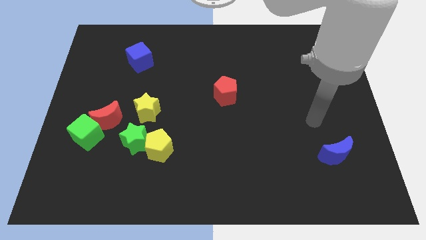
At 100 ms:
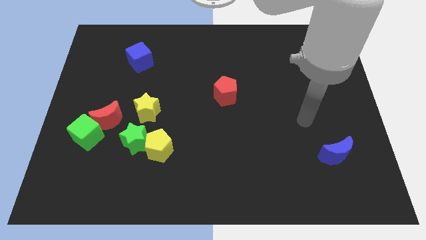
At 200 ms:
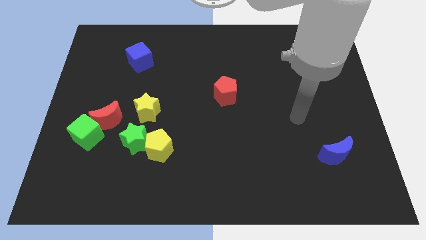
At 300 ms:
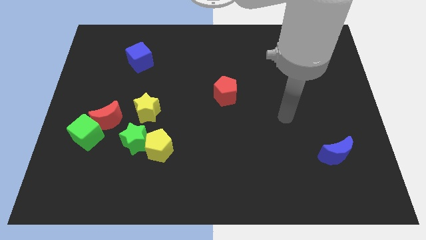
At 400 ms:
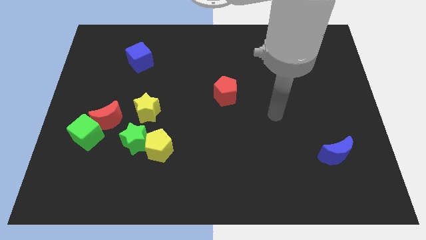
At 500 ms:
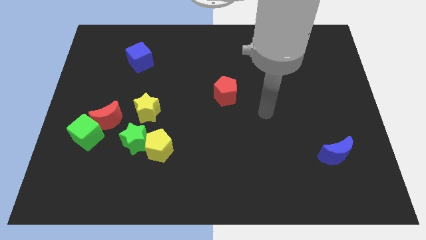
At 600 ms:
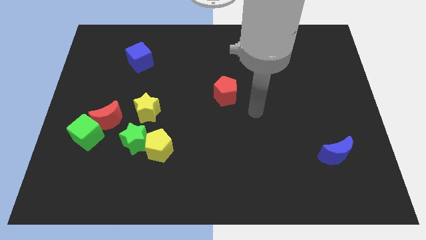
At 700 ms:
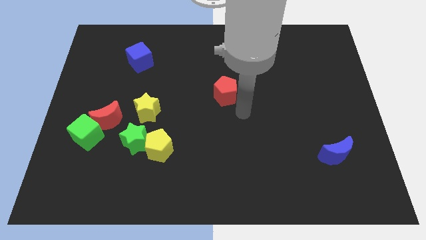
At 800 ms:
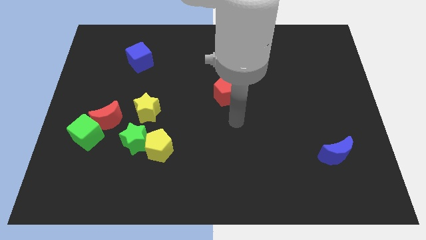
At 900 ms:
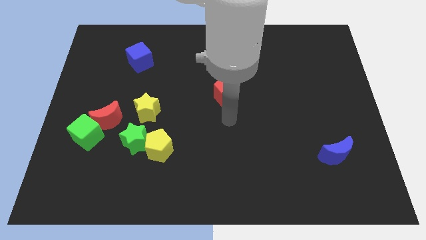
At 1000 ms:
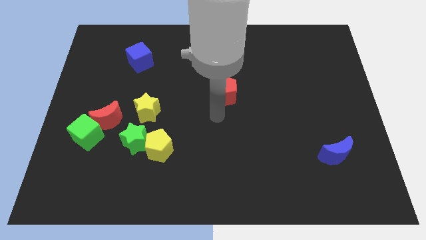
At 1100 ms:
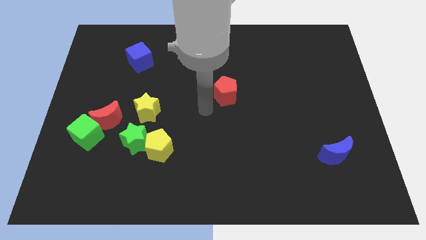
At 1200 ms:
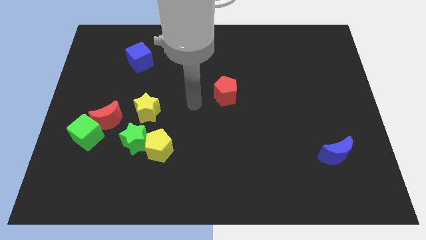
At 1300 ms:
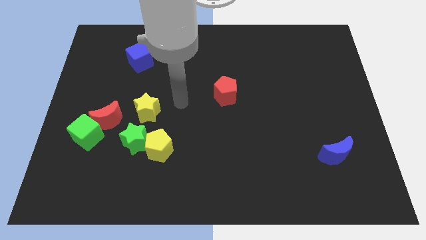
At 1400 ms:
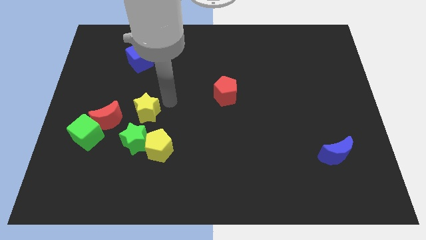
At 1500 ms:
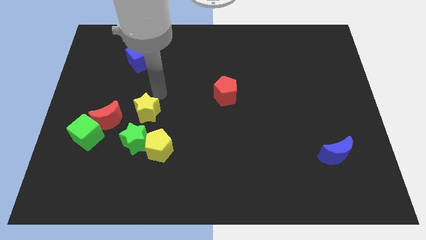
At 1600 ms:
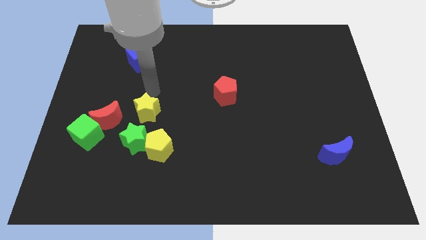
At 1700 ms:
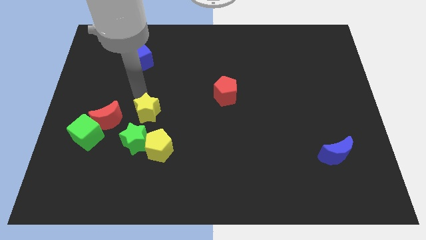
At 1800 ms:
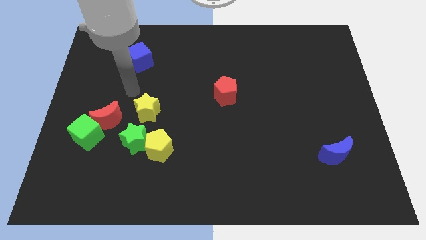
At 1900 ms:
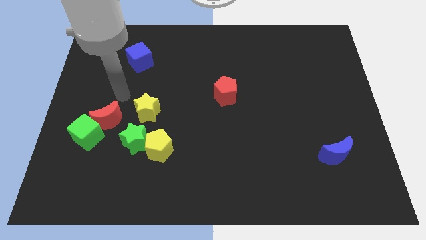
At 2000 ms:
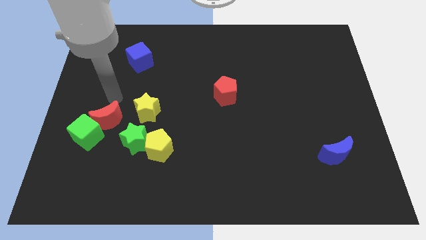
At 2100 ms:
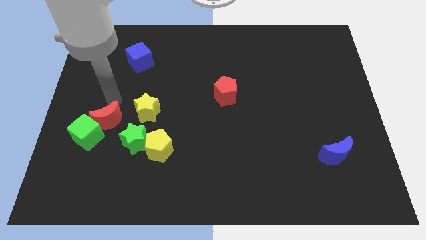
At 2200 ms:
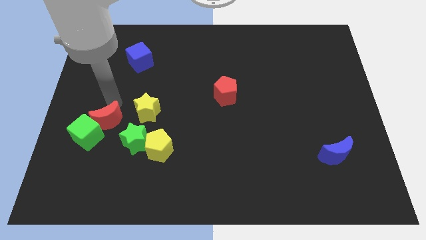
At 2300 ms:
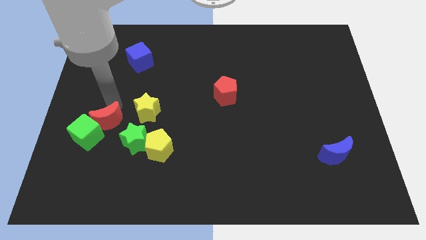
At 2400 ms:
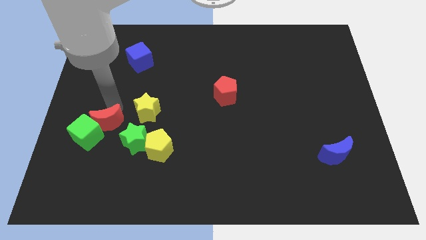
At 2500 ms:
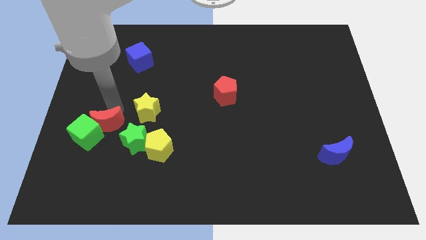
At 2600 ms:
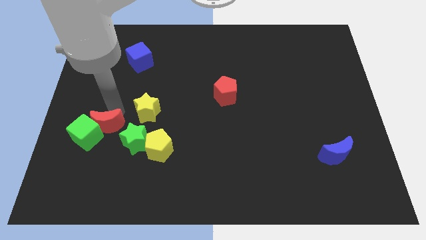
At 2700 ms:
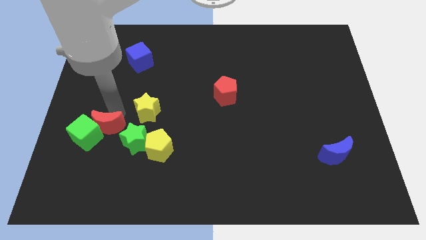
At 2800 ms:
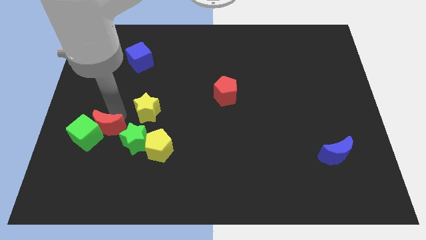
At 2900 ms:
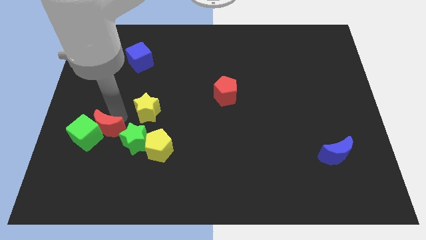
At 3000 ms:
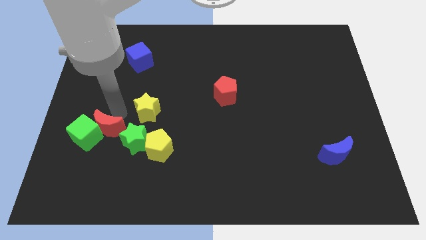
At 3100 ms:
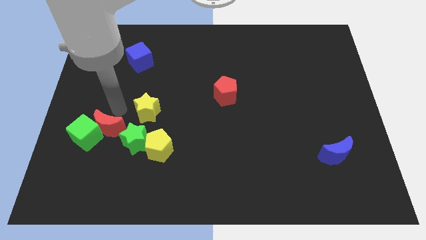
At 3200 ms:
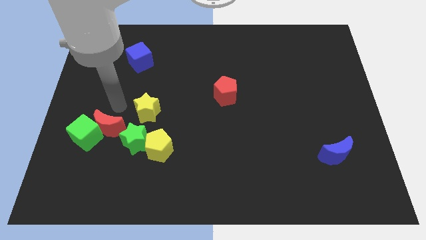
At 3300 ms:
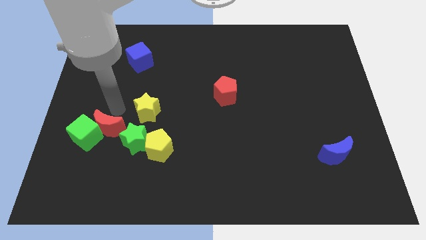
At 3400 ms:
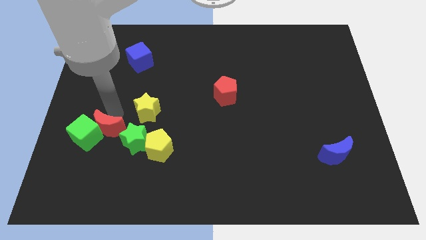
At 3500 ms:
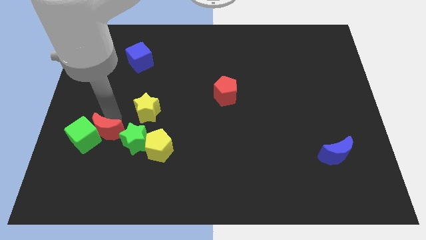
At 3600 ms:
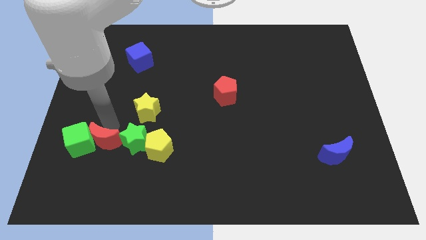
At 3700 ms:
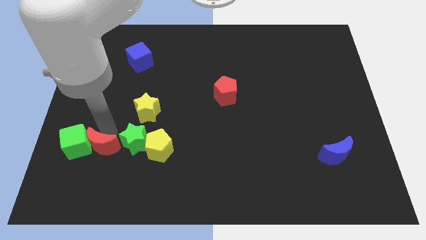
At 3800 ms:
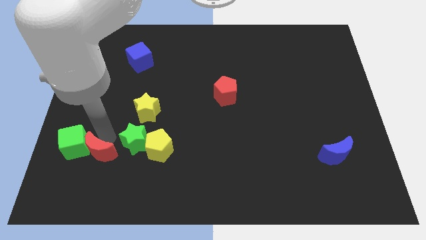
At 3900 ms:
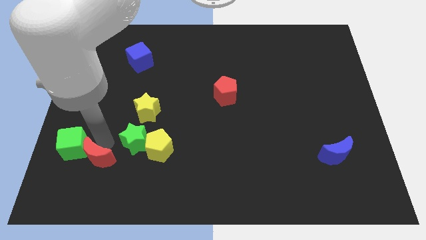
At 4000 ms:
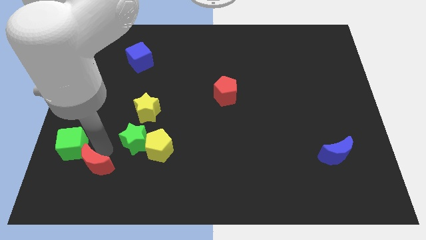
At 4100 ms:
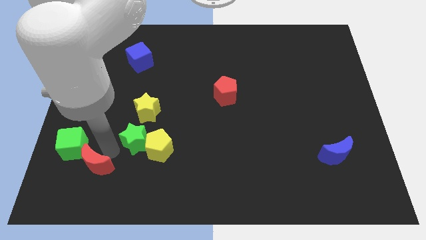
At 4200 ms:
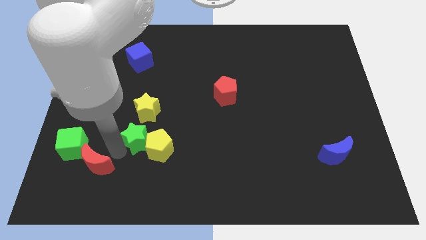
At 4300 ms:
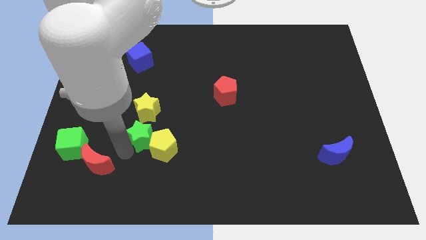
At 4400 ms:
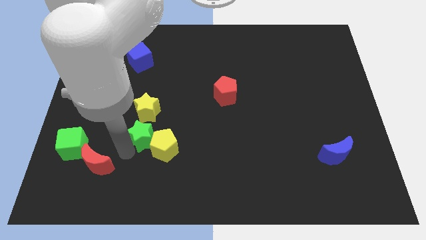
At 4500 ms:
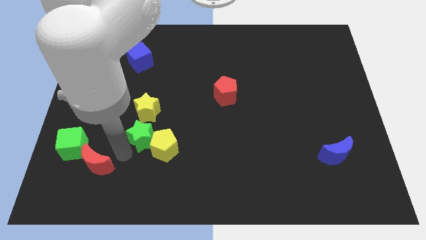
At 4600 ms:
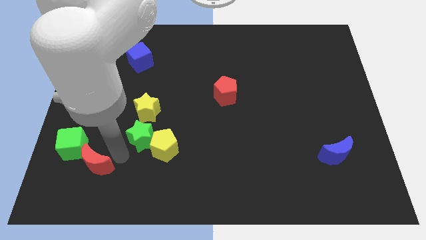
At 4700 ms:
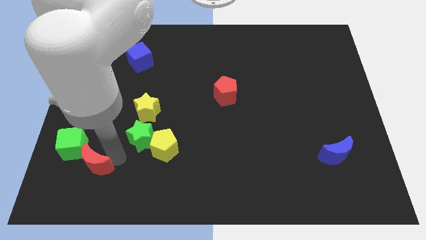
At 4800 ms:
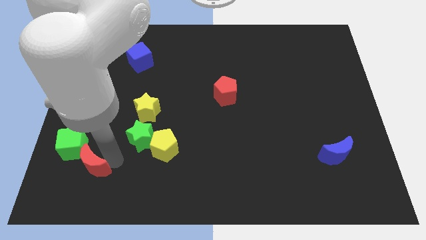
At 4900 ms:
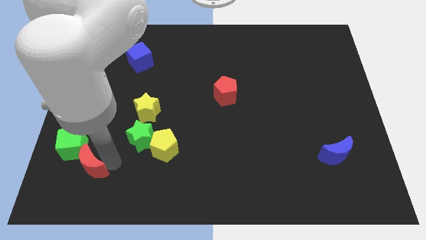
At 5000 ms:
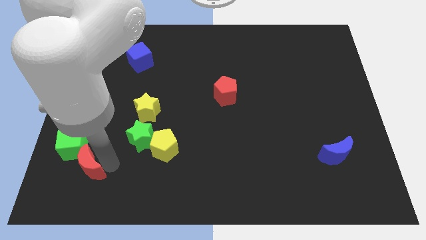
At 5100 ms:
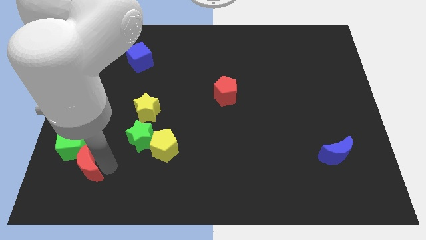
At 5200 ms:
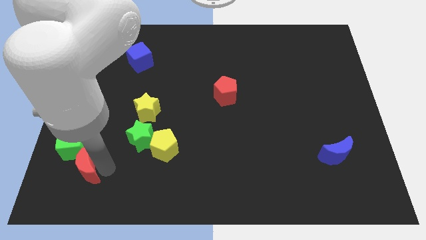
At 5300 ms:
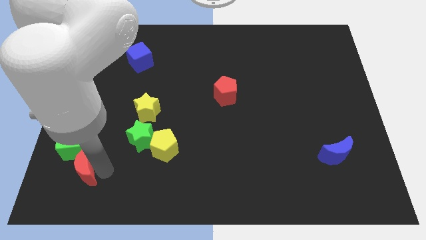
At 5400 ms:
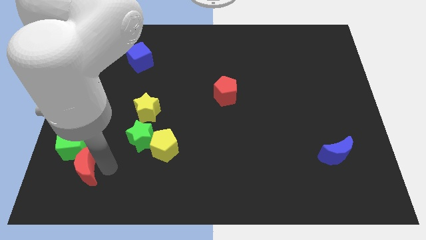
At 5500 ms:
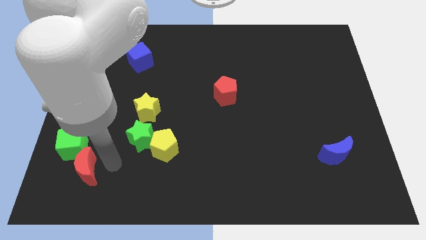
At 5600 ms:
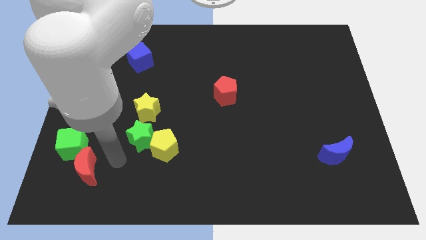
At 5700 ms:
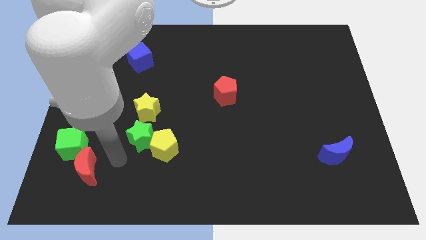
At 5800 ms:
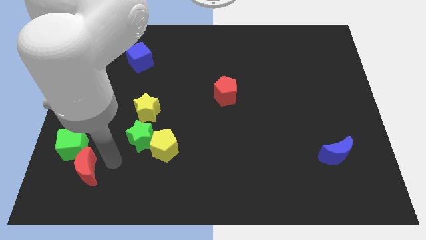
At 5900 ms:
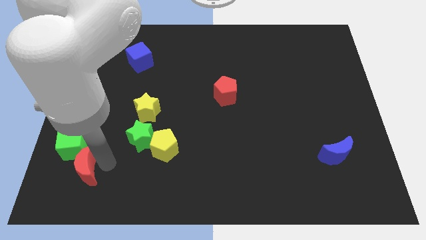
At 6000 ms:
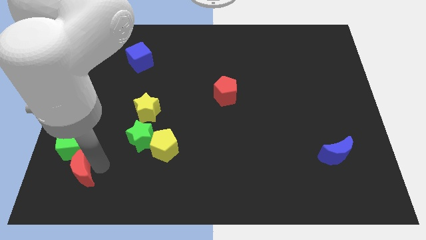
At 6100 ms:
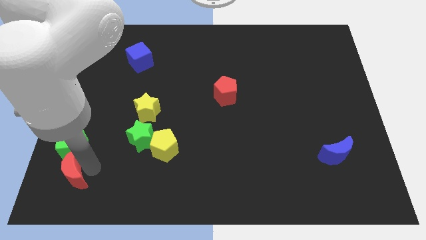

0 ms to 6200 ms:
push the red moon to the bottom left corner
